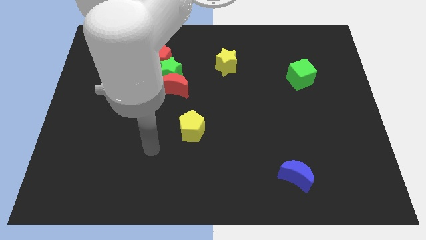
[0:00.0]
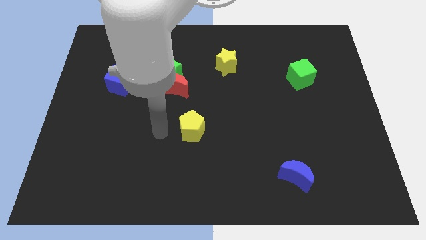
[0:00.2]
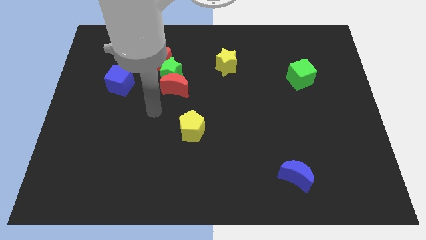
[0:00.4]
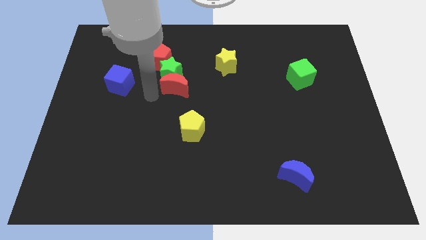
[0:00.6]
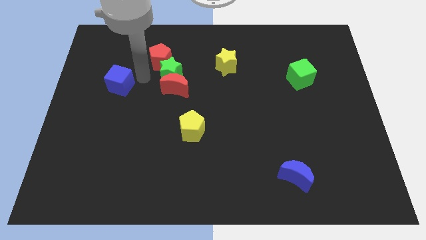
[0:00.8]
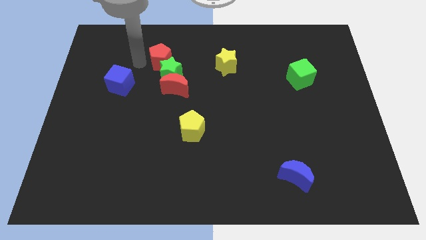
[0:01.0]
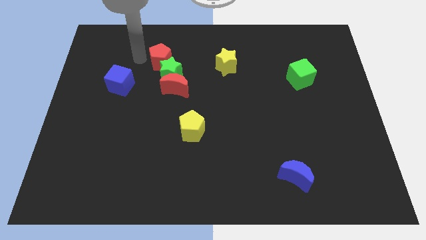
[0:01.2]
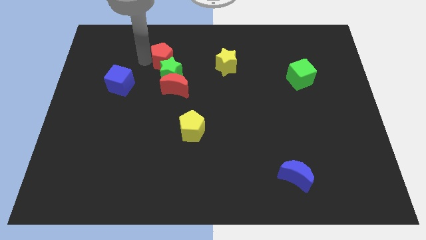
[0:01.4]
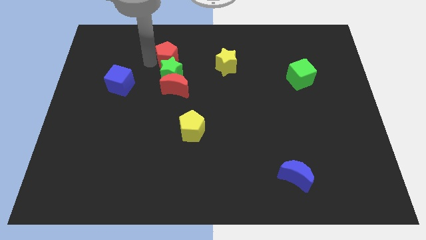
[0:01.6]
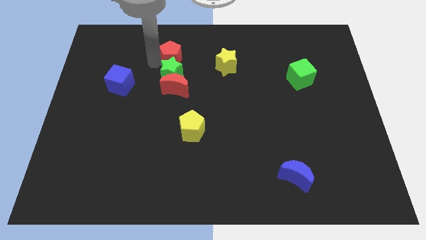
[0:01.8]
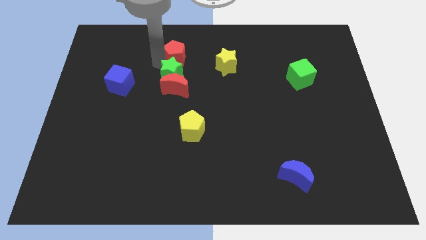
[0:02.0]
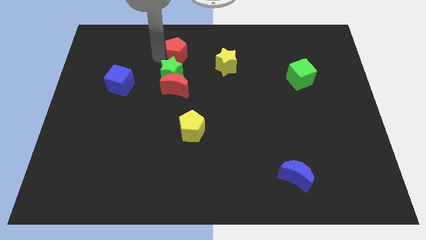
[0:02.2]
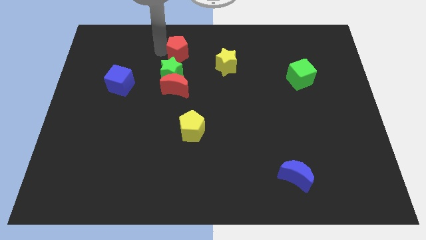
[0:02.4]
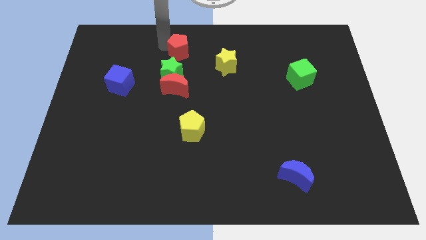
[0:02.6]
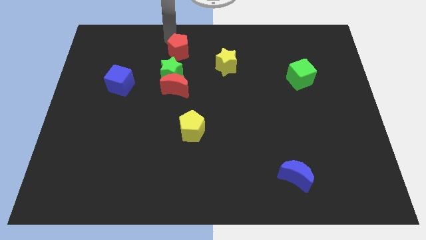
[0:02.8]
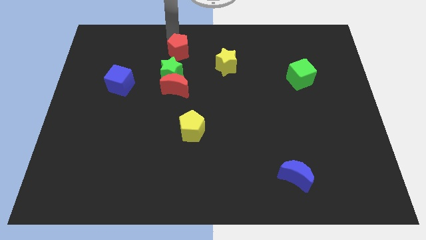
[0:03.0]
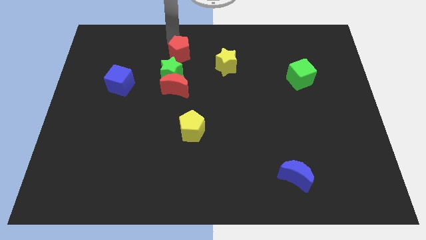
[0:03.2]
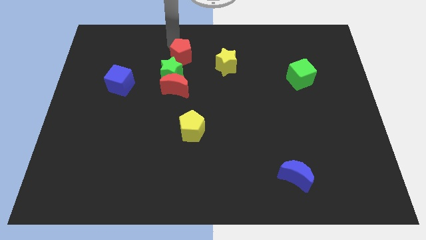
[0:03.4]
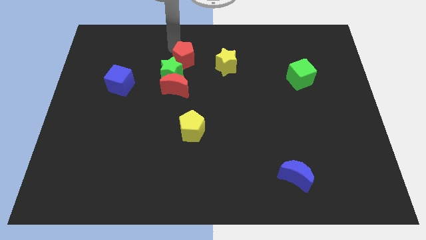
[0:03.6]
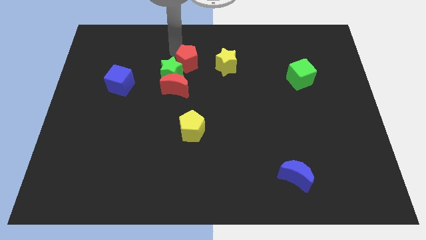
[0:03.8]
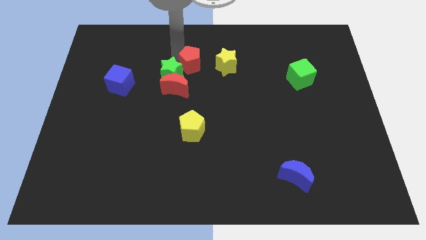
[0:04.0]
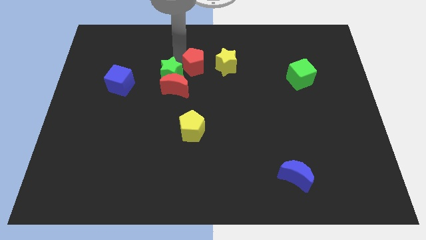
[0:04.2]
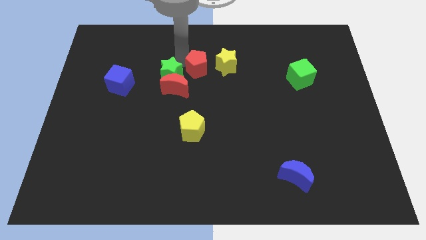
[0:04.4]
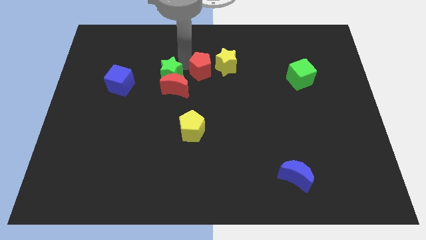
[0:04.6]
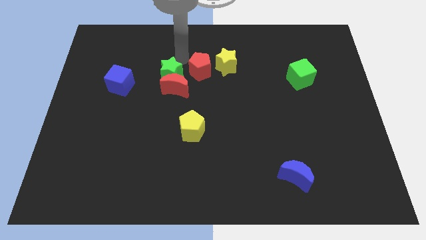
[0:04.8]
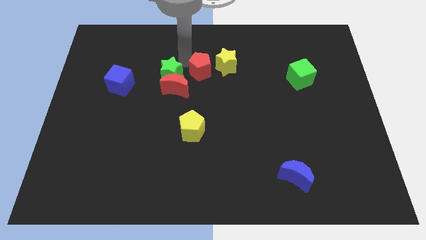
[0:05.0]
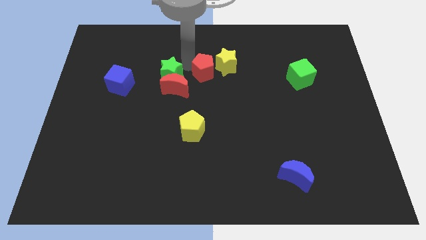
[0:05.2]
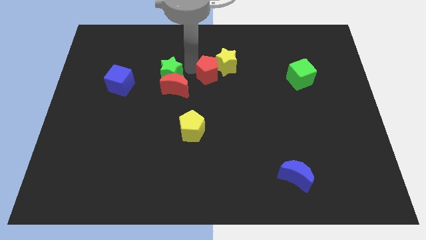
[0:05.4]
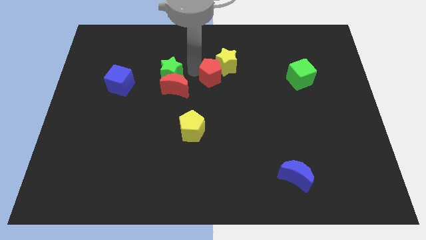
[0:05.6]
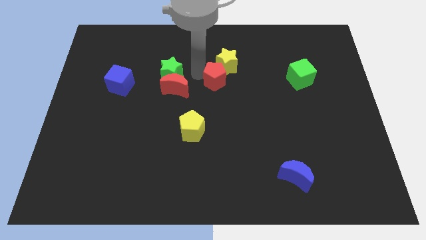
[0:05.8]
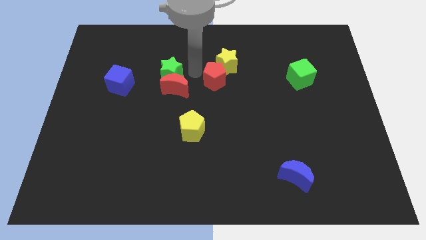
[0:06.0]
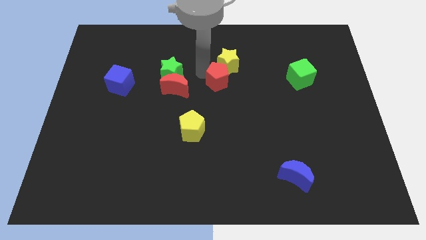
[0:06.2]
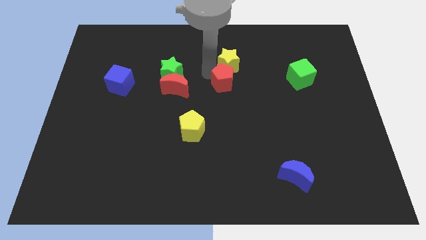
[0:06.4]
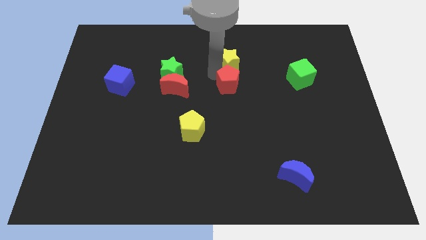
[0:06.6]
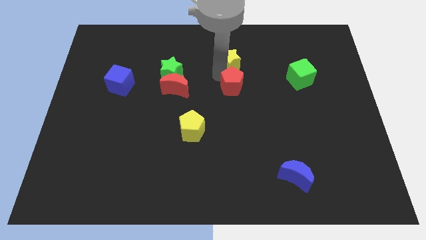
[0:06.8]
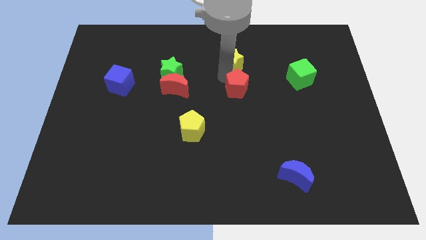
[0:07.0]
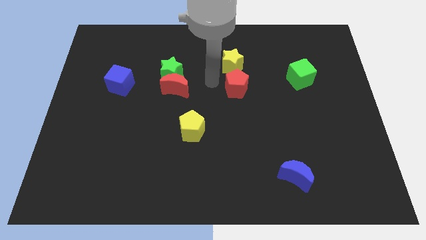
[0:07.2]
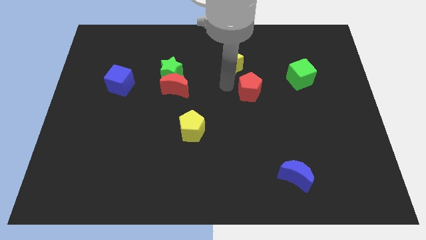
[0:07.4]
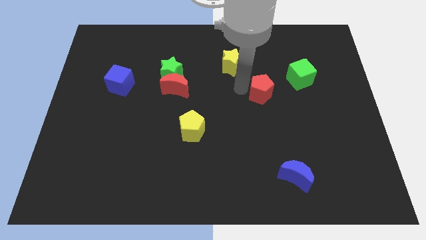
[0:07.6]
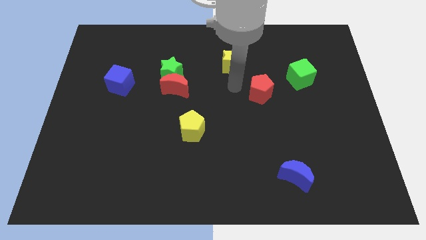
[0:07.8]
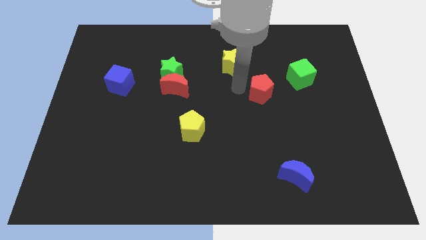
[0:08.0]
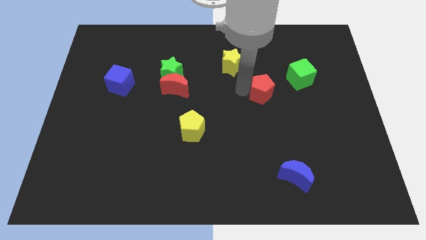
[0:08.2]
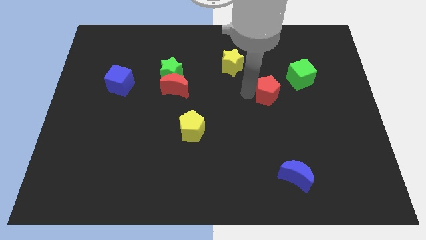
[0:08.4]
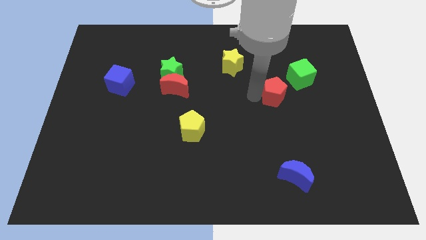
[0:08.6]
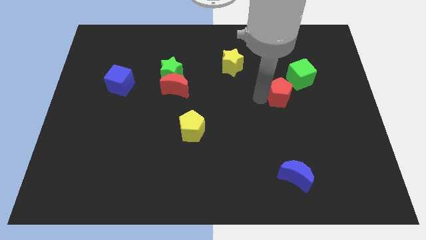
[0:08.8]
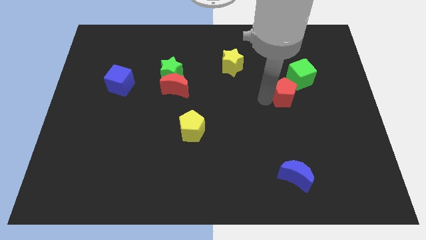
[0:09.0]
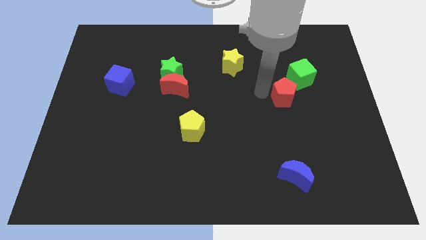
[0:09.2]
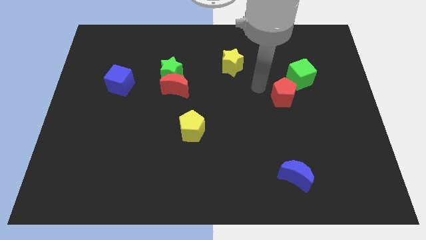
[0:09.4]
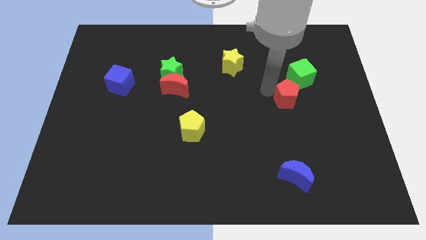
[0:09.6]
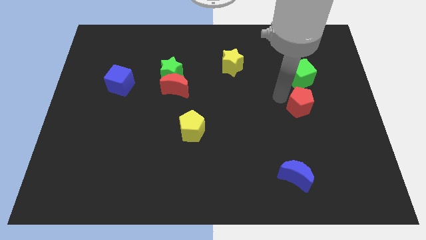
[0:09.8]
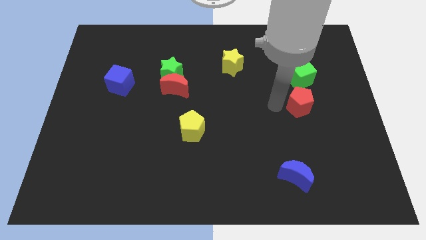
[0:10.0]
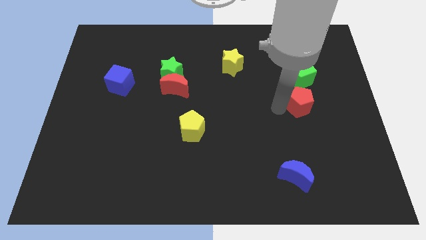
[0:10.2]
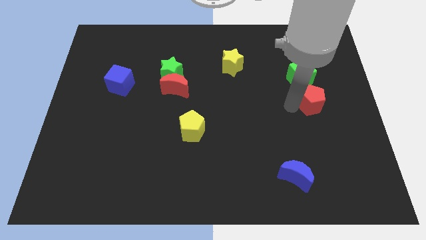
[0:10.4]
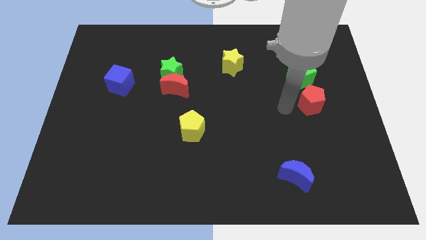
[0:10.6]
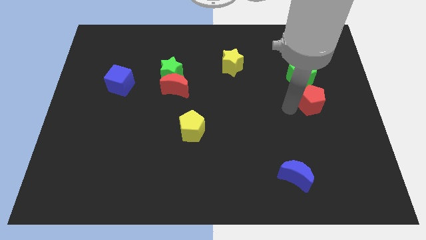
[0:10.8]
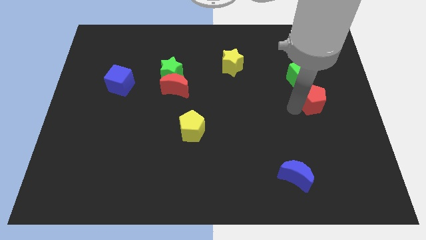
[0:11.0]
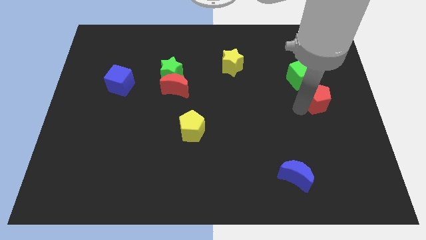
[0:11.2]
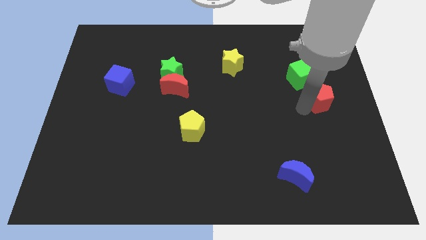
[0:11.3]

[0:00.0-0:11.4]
slide the red pentagon to the right side
